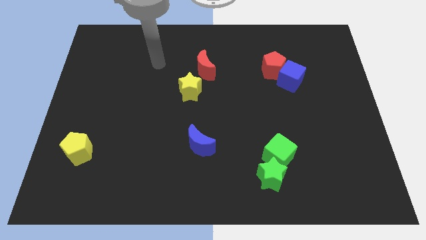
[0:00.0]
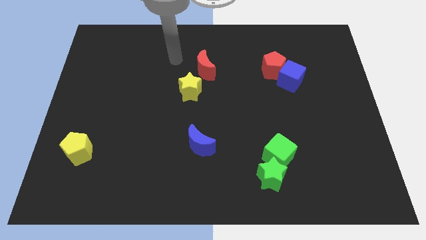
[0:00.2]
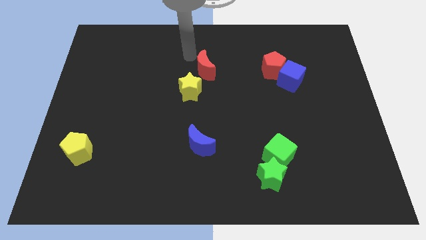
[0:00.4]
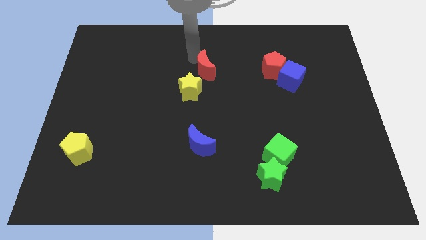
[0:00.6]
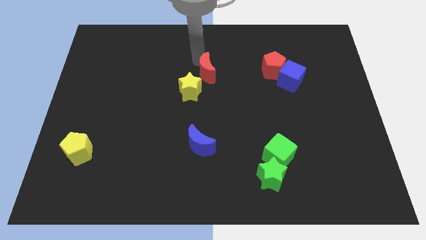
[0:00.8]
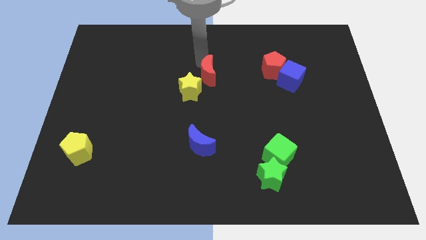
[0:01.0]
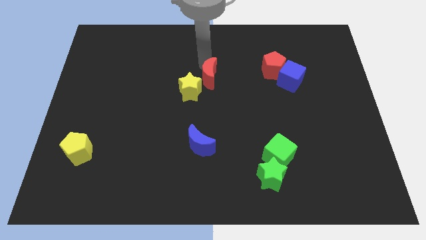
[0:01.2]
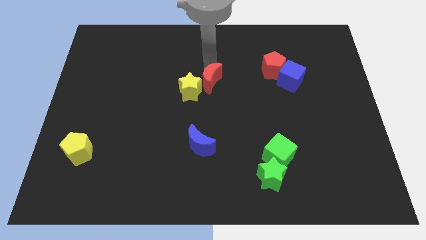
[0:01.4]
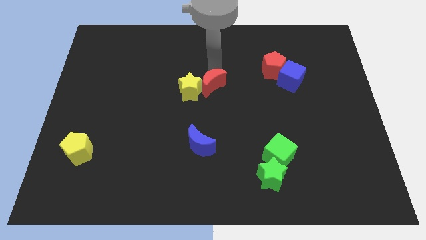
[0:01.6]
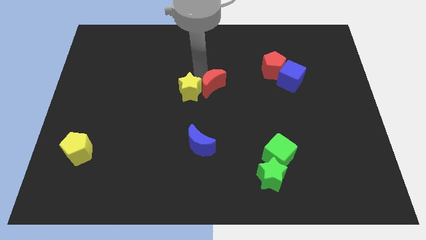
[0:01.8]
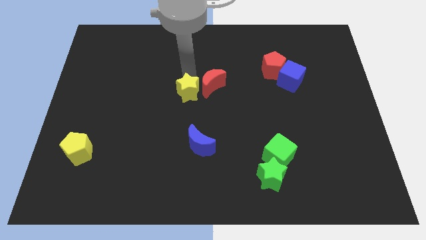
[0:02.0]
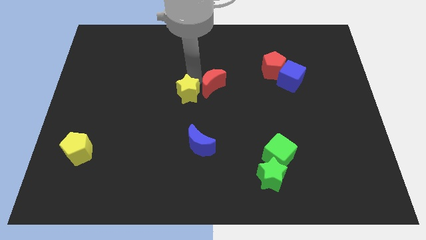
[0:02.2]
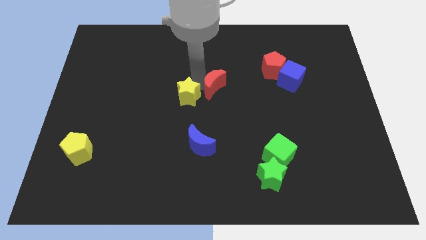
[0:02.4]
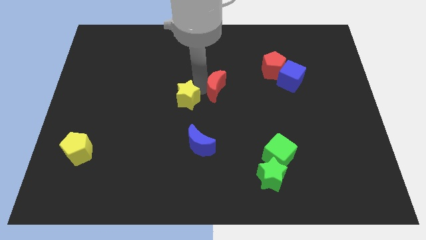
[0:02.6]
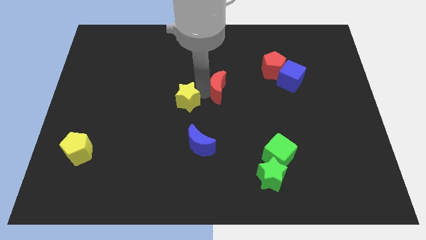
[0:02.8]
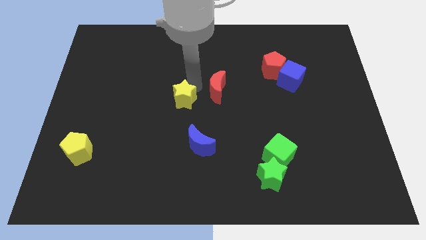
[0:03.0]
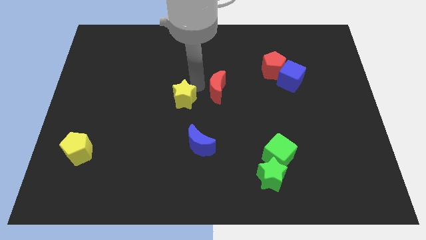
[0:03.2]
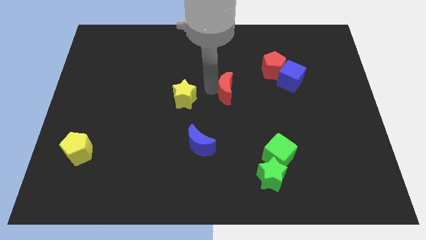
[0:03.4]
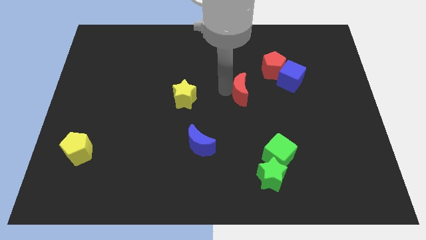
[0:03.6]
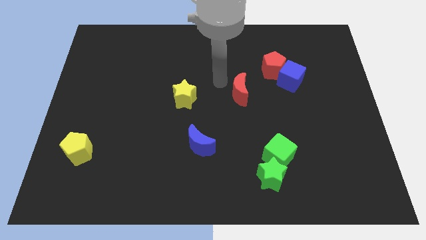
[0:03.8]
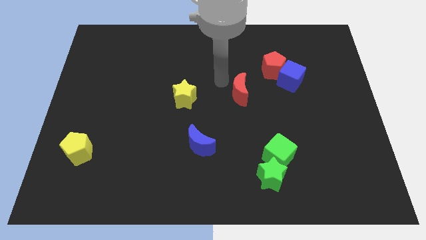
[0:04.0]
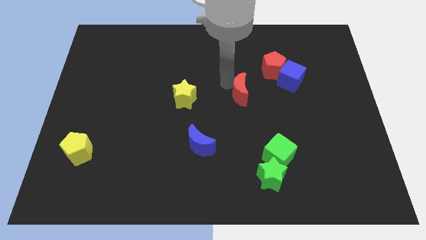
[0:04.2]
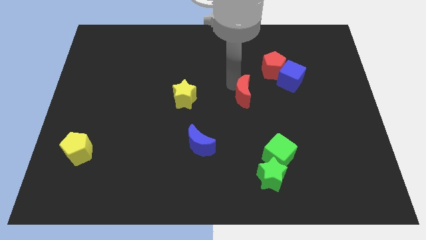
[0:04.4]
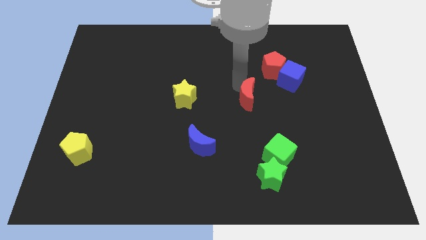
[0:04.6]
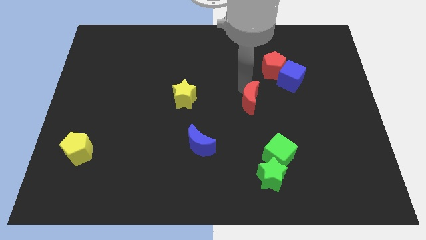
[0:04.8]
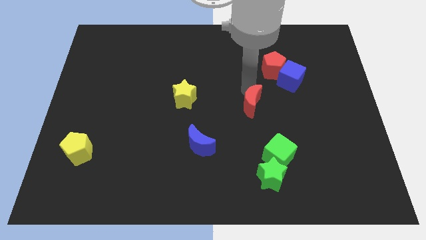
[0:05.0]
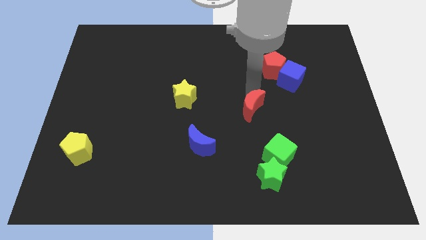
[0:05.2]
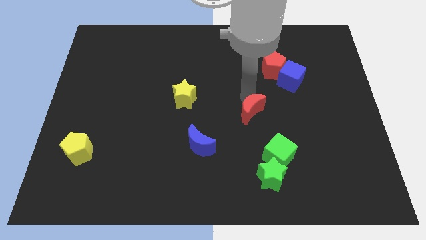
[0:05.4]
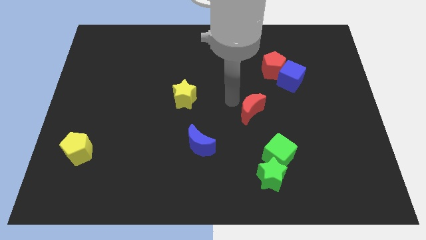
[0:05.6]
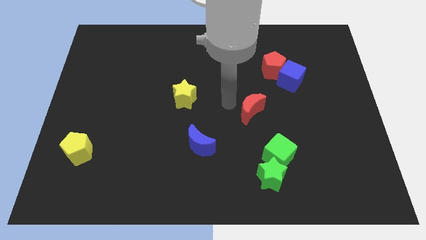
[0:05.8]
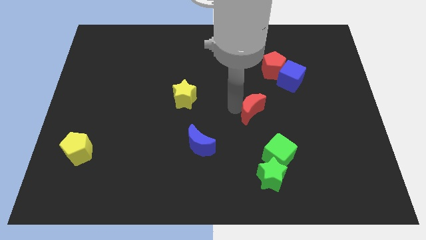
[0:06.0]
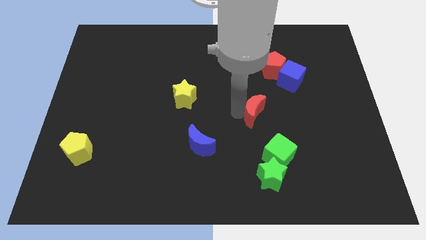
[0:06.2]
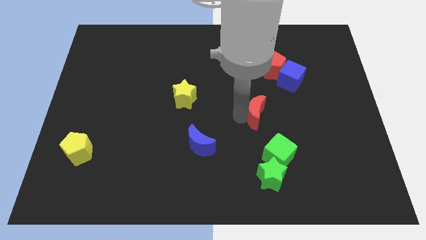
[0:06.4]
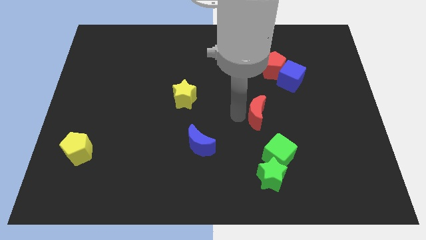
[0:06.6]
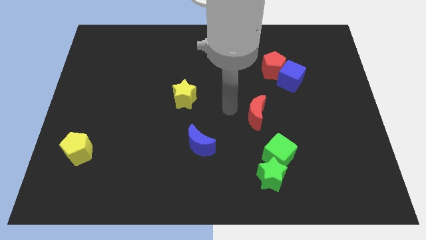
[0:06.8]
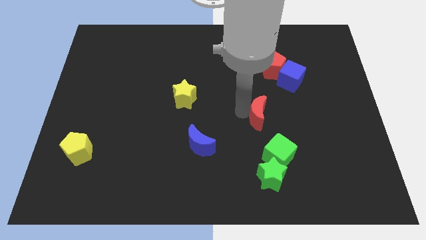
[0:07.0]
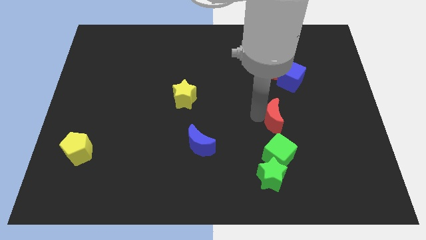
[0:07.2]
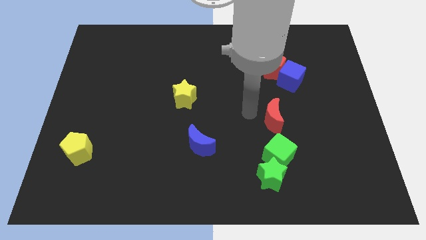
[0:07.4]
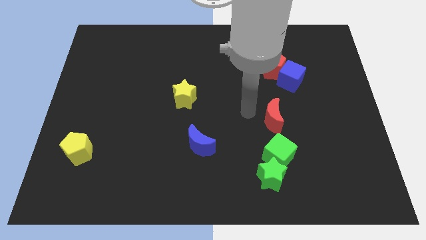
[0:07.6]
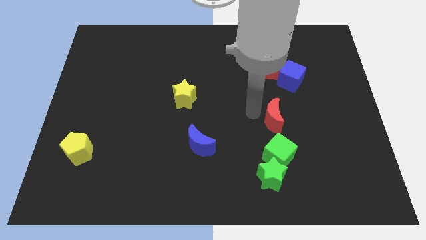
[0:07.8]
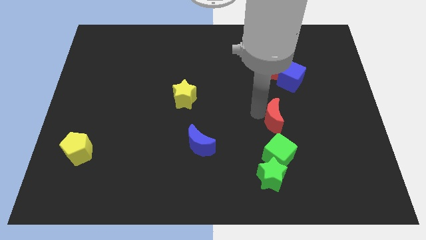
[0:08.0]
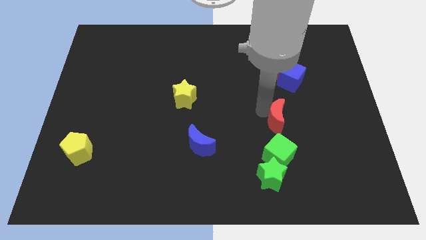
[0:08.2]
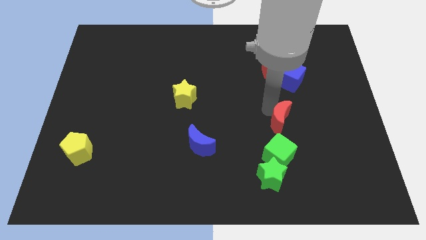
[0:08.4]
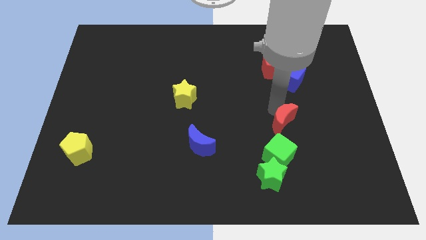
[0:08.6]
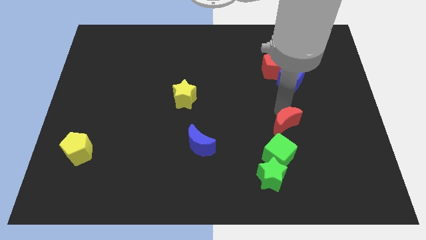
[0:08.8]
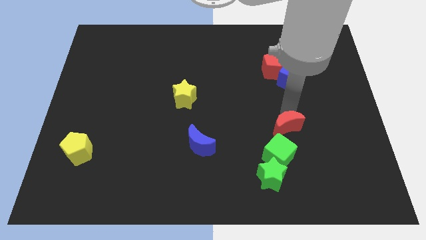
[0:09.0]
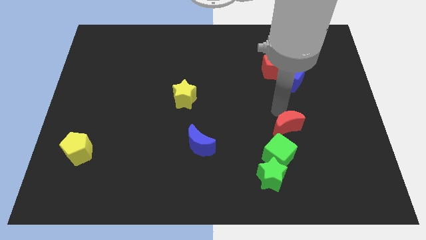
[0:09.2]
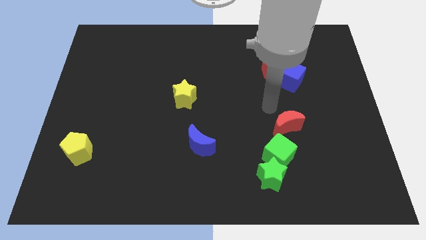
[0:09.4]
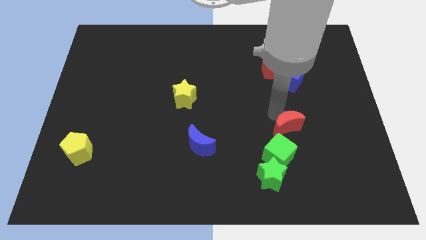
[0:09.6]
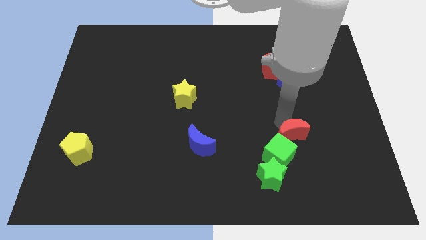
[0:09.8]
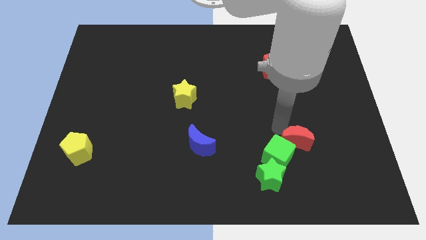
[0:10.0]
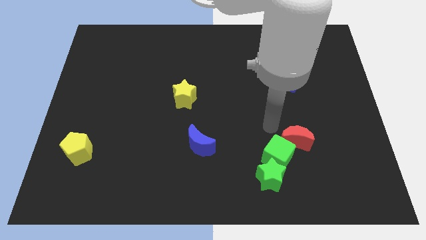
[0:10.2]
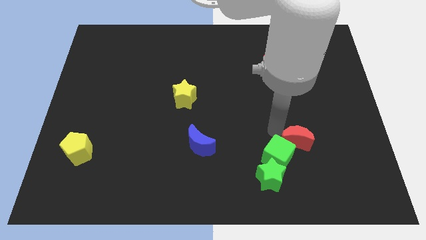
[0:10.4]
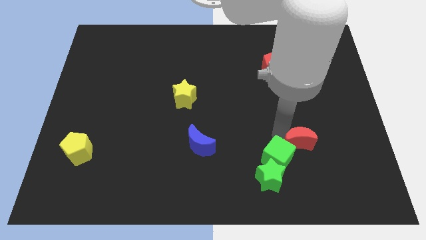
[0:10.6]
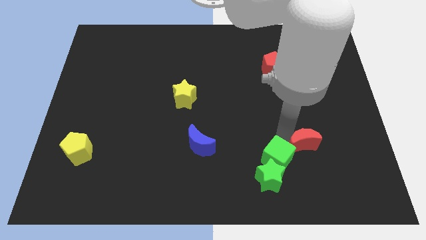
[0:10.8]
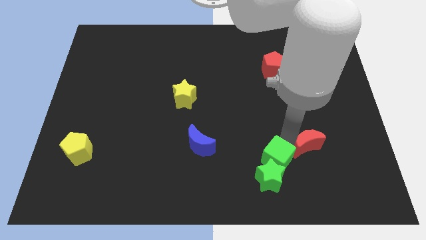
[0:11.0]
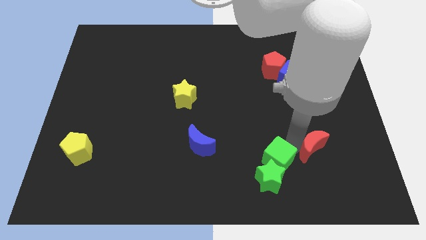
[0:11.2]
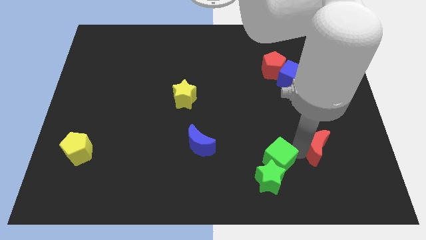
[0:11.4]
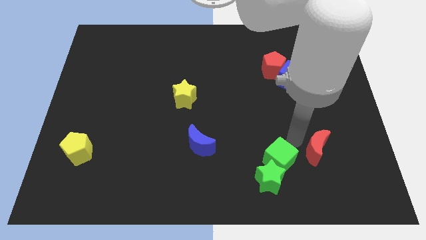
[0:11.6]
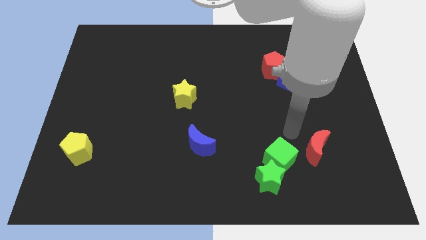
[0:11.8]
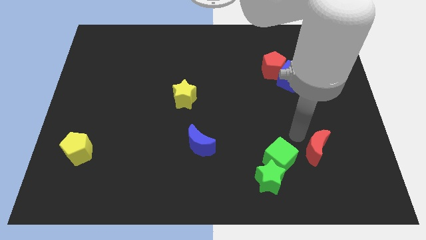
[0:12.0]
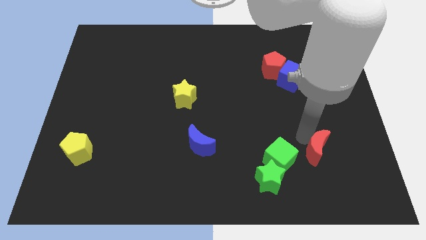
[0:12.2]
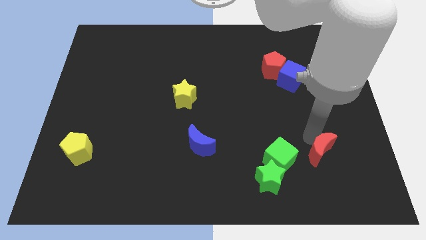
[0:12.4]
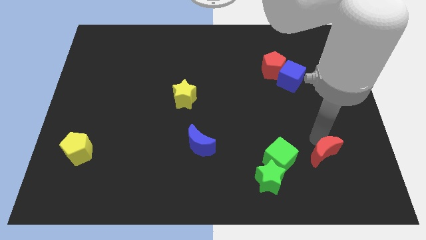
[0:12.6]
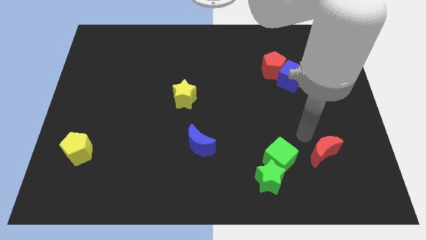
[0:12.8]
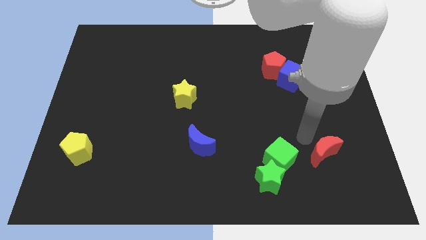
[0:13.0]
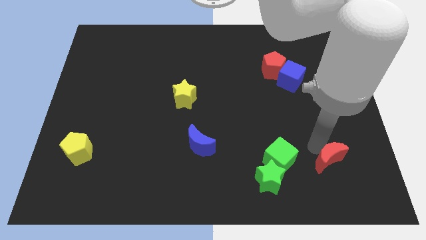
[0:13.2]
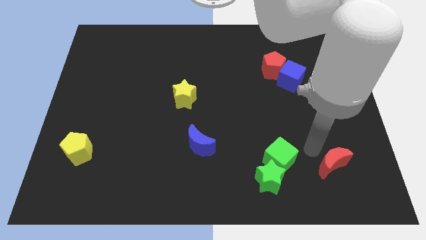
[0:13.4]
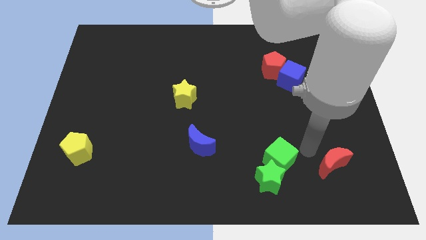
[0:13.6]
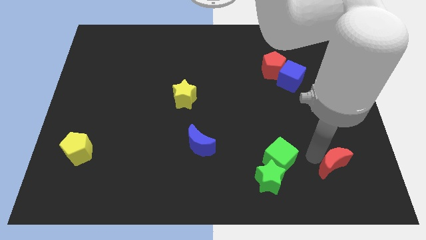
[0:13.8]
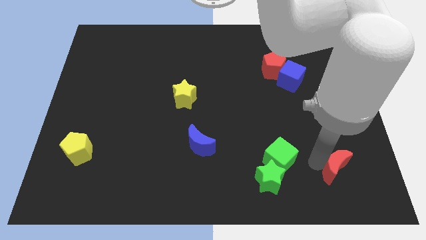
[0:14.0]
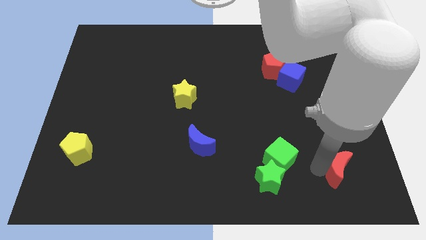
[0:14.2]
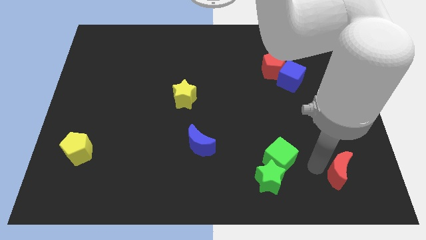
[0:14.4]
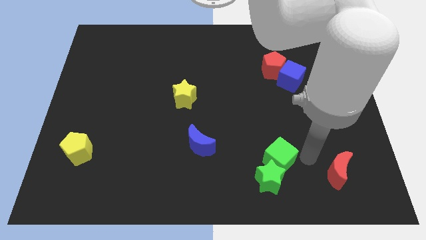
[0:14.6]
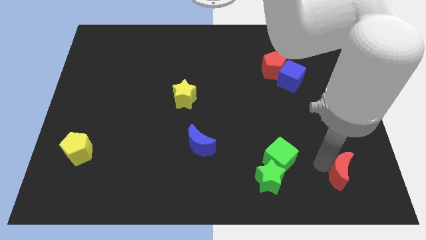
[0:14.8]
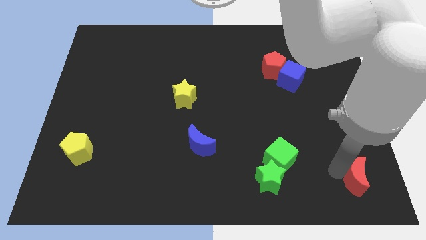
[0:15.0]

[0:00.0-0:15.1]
push the red moon to the bottom right of the board
